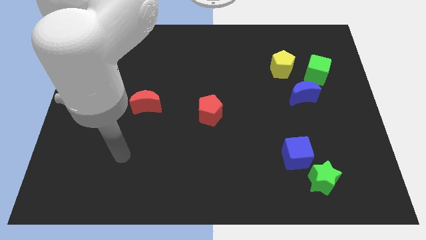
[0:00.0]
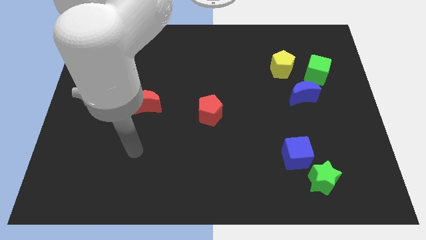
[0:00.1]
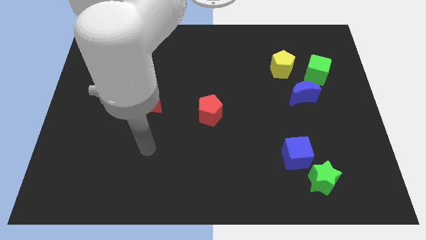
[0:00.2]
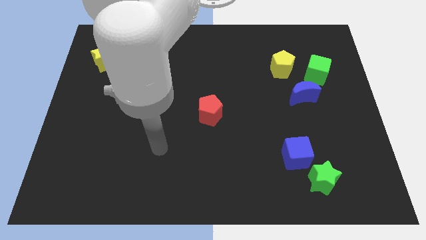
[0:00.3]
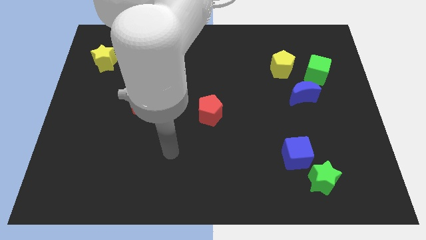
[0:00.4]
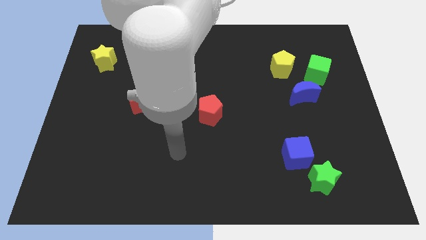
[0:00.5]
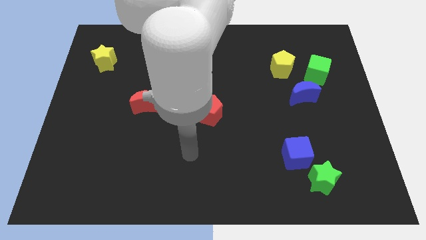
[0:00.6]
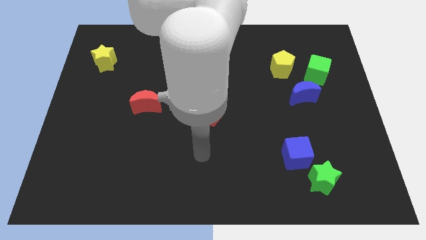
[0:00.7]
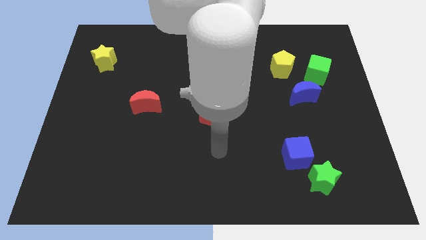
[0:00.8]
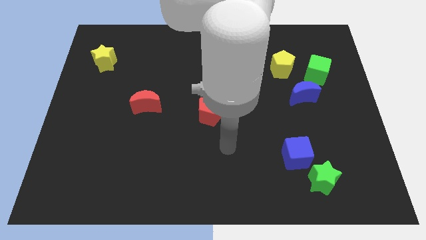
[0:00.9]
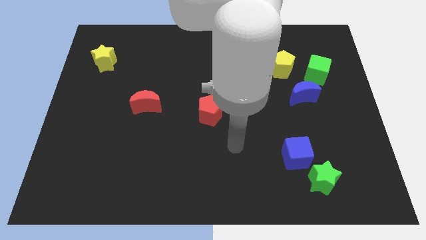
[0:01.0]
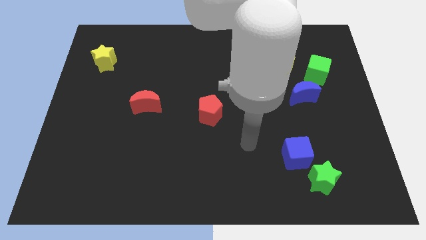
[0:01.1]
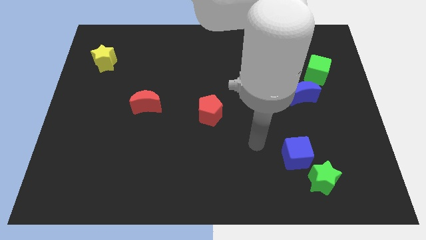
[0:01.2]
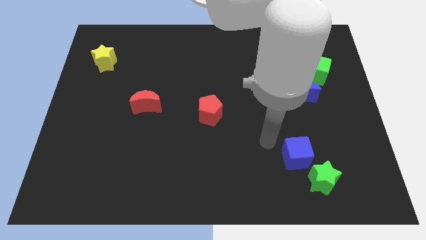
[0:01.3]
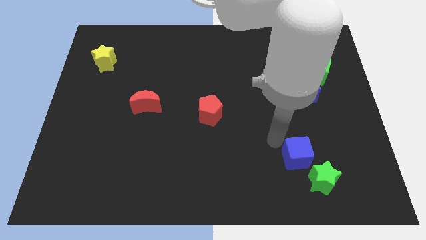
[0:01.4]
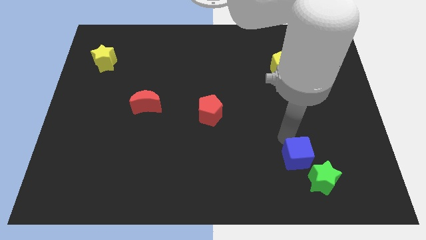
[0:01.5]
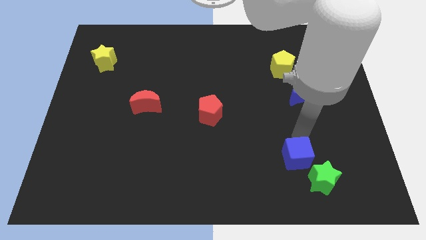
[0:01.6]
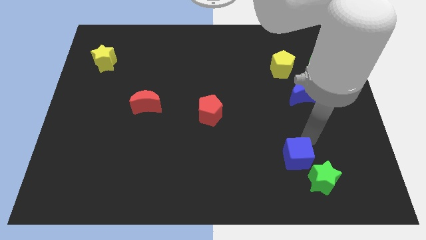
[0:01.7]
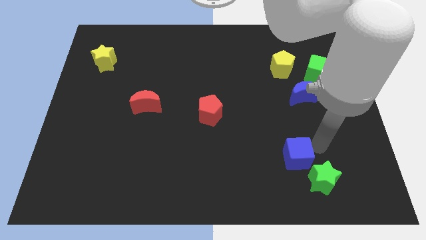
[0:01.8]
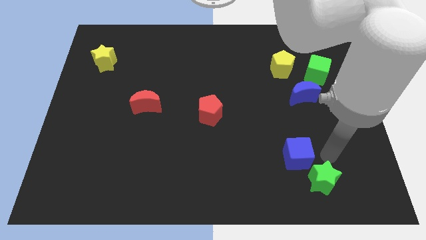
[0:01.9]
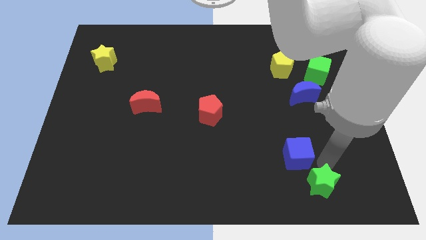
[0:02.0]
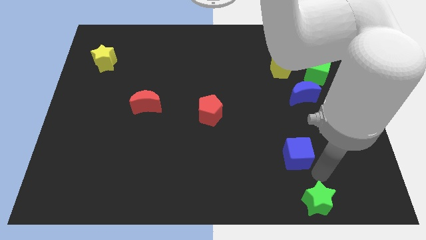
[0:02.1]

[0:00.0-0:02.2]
separate the blue cube from the green star

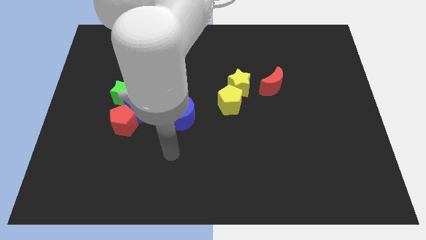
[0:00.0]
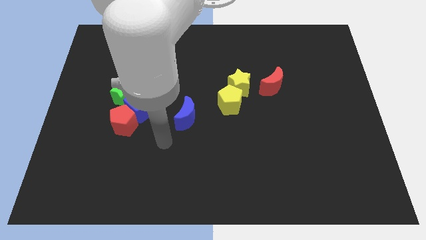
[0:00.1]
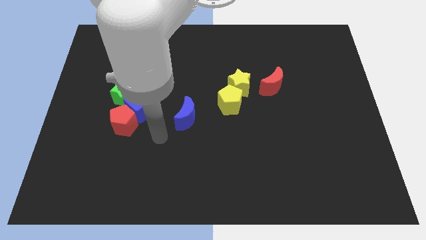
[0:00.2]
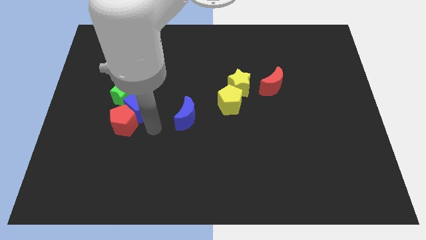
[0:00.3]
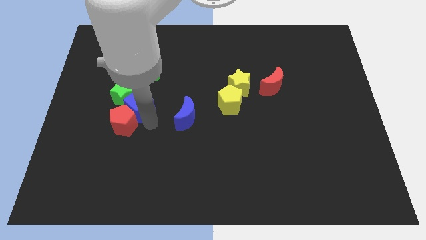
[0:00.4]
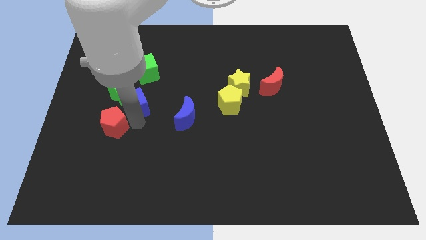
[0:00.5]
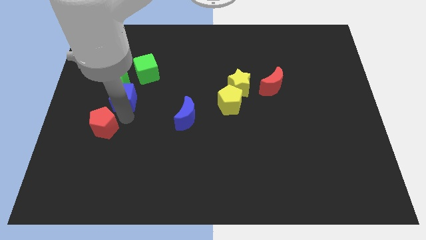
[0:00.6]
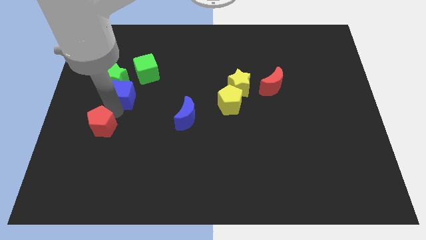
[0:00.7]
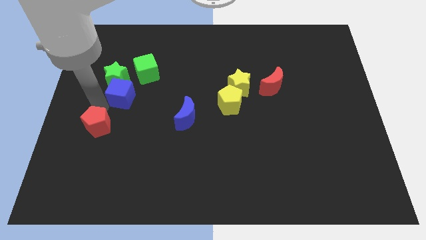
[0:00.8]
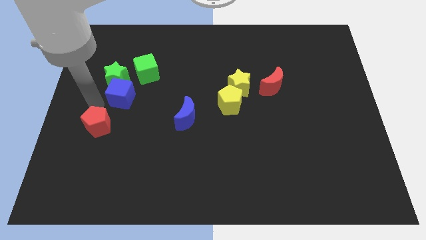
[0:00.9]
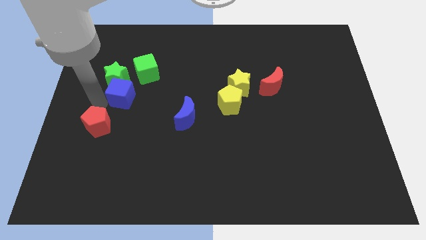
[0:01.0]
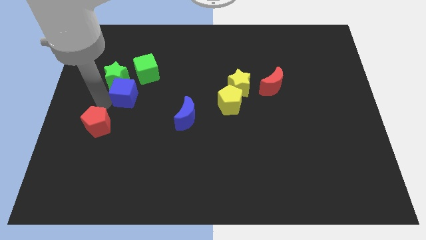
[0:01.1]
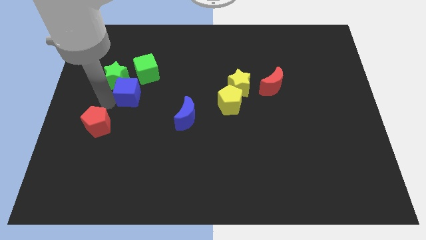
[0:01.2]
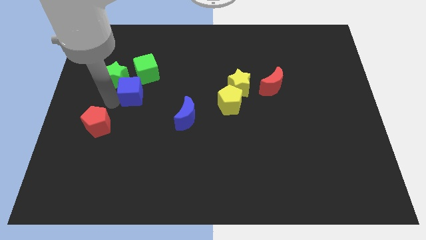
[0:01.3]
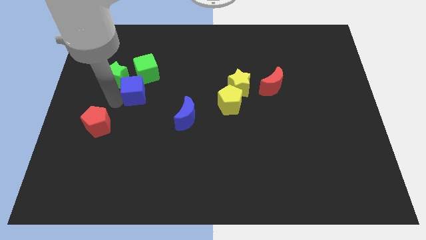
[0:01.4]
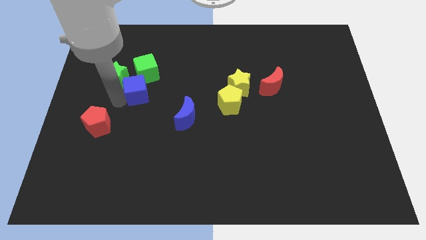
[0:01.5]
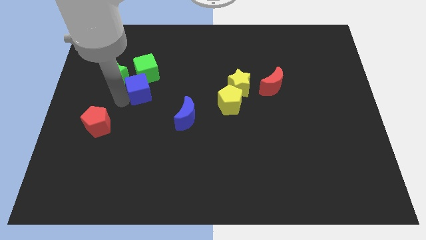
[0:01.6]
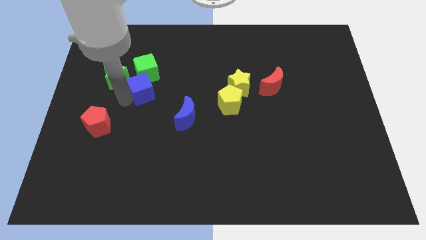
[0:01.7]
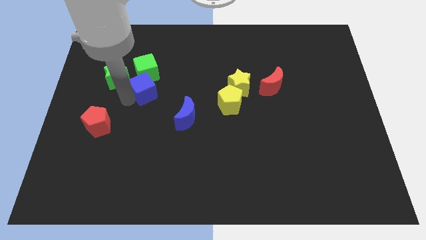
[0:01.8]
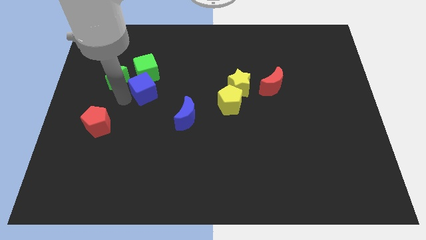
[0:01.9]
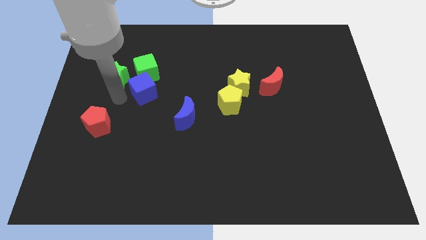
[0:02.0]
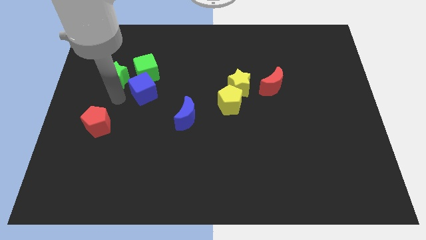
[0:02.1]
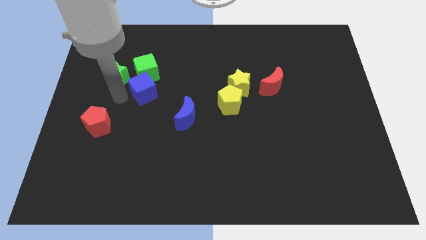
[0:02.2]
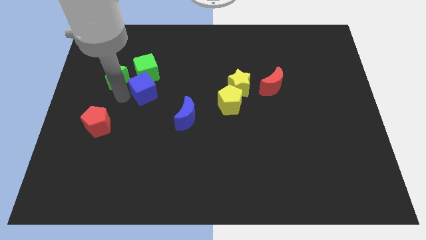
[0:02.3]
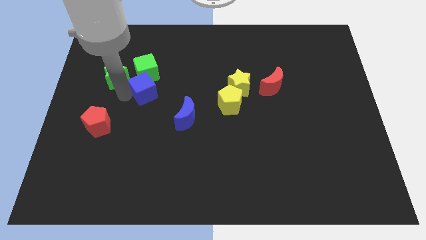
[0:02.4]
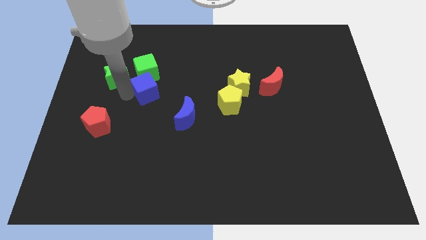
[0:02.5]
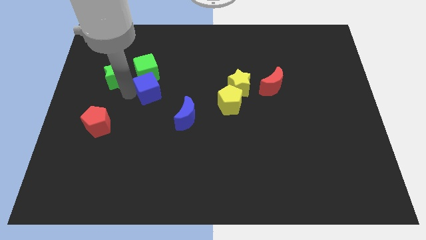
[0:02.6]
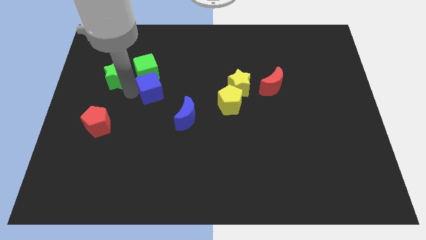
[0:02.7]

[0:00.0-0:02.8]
separate the blue cube from the red pentagon and green star

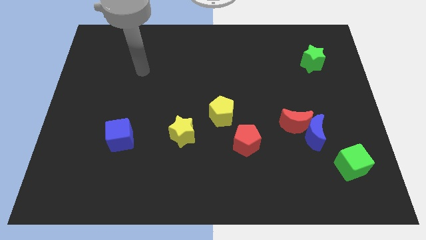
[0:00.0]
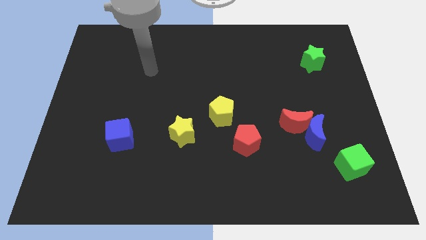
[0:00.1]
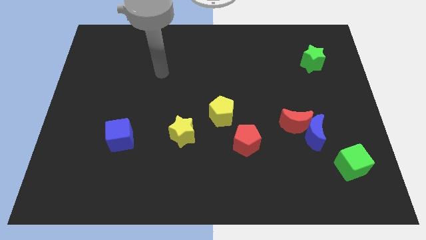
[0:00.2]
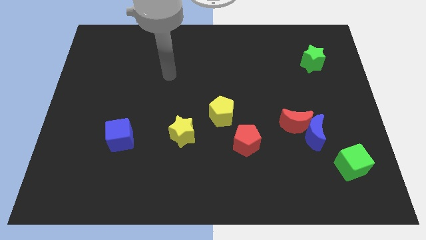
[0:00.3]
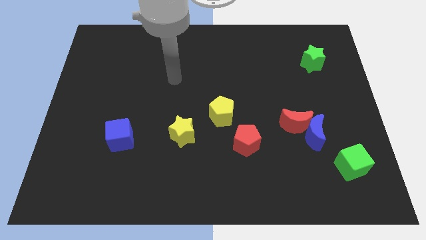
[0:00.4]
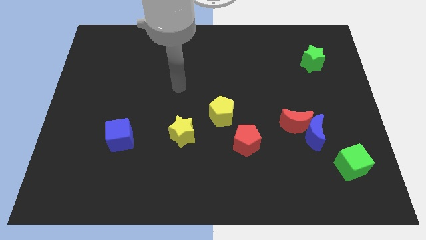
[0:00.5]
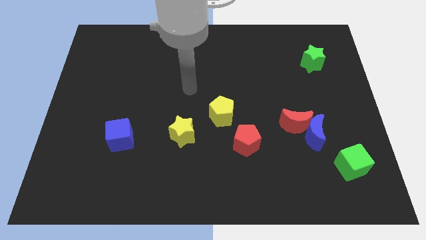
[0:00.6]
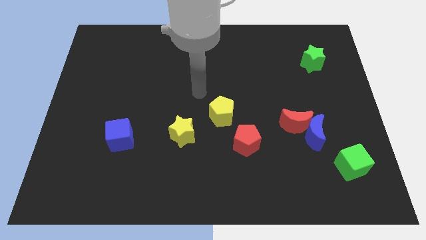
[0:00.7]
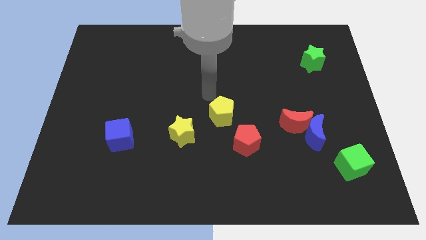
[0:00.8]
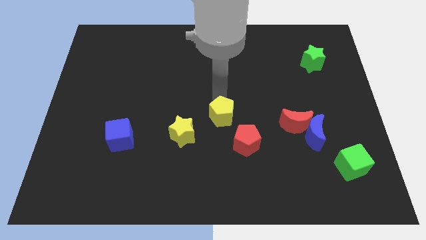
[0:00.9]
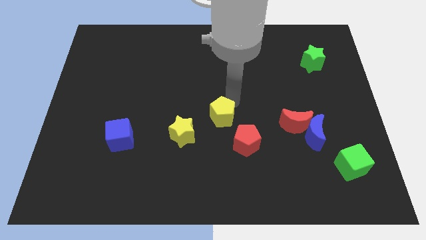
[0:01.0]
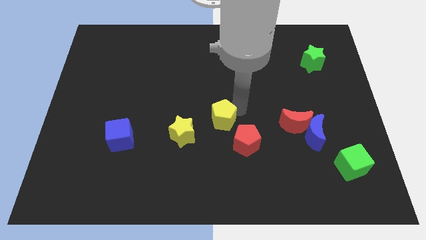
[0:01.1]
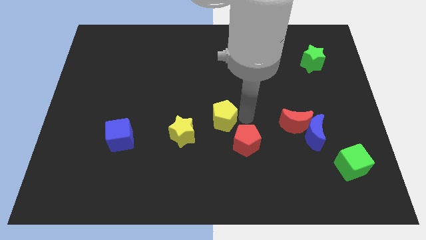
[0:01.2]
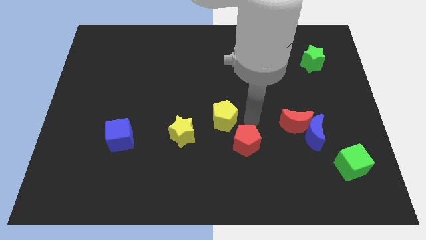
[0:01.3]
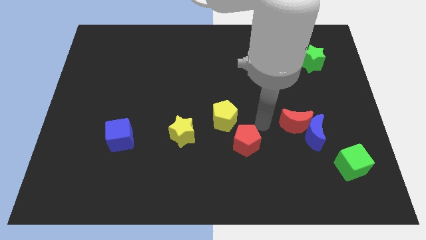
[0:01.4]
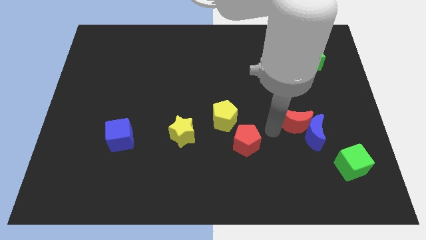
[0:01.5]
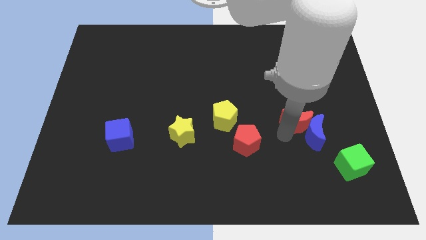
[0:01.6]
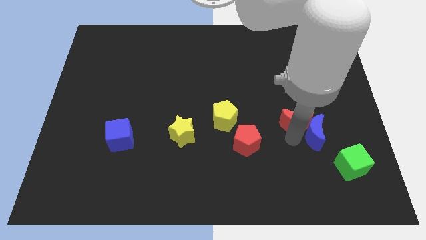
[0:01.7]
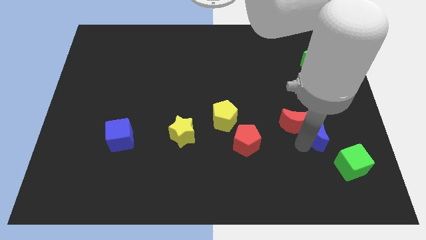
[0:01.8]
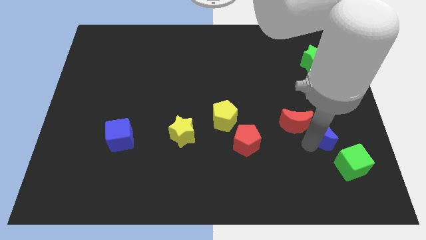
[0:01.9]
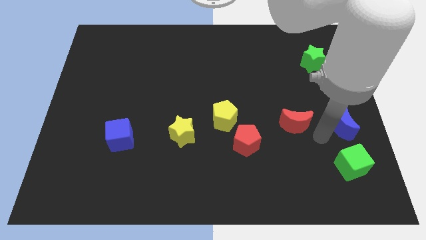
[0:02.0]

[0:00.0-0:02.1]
move the red moon away from the blue moon

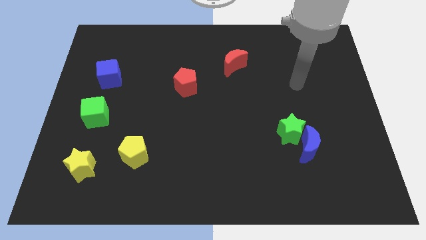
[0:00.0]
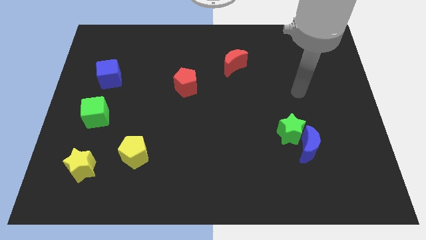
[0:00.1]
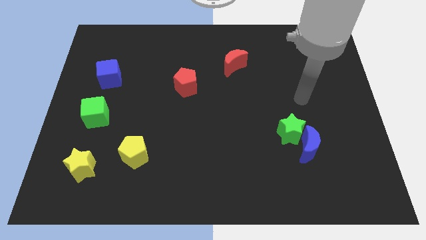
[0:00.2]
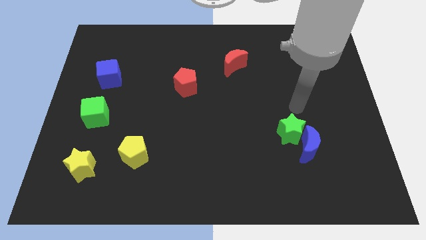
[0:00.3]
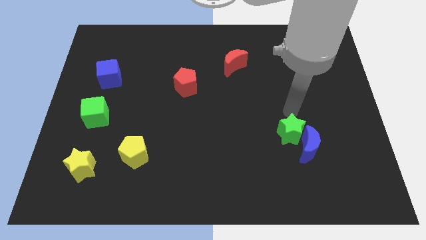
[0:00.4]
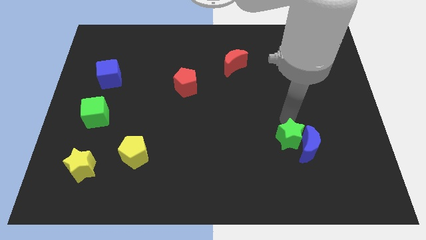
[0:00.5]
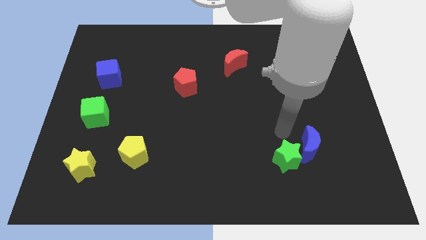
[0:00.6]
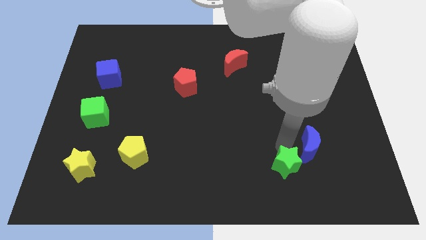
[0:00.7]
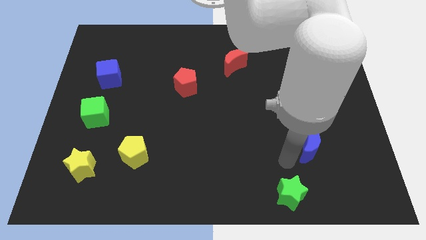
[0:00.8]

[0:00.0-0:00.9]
move the blue moon away from the green star

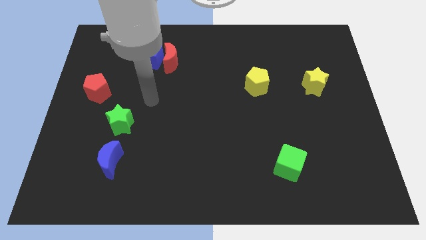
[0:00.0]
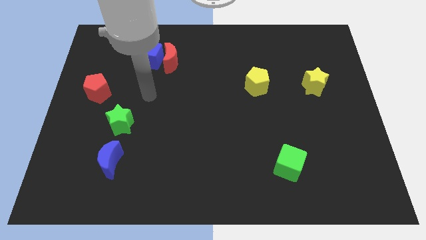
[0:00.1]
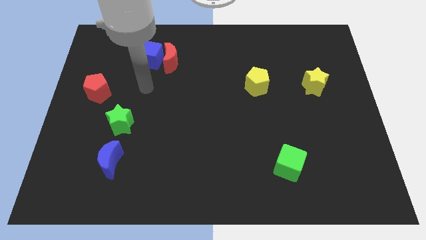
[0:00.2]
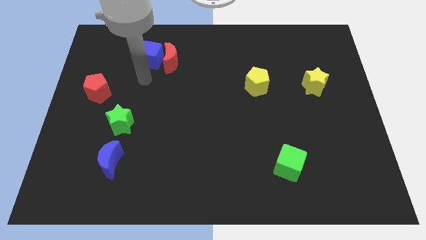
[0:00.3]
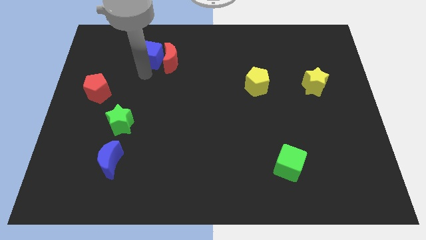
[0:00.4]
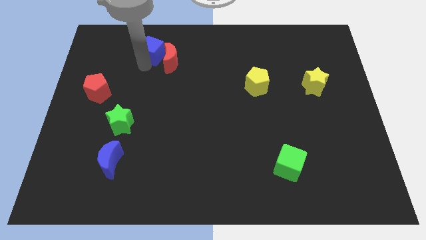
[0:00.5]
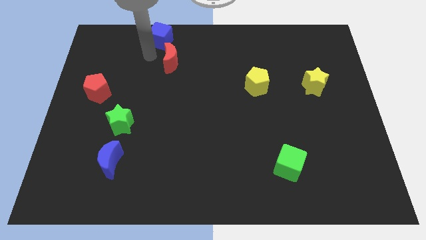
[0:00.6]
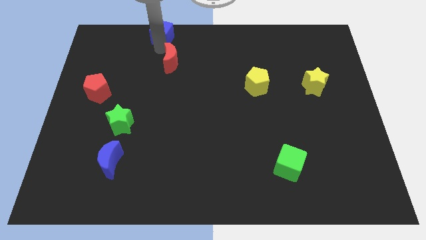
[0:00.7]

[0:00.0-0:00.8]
pull the red moon apart from the blue cube

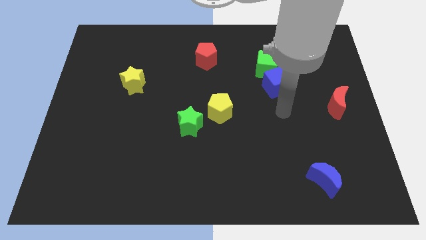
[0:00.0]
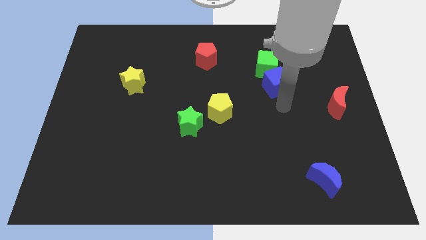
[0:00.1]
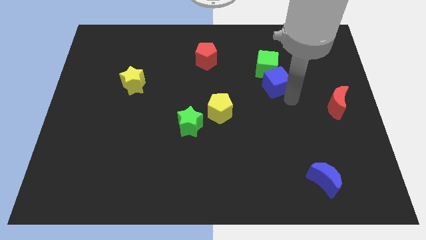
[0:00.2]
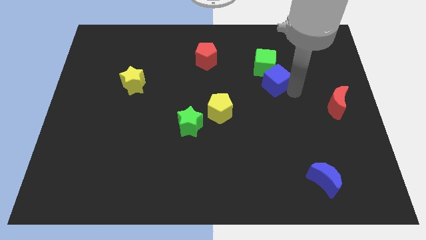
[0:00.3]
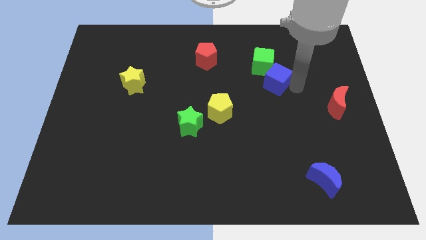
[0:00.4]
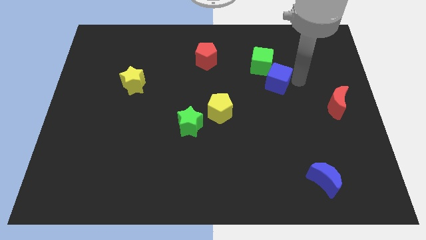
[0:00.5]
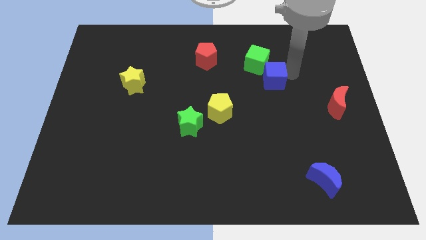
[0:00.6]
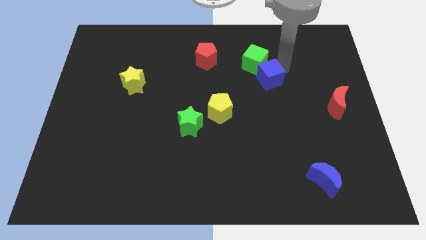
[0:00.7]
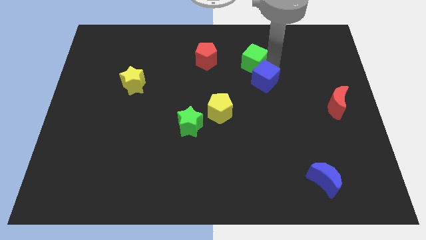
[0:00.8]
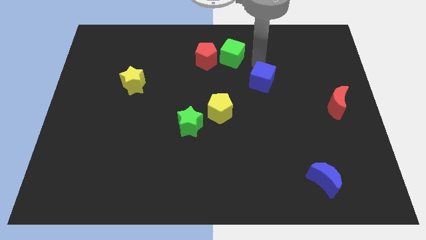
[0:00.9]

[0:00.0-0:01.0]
separate the blue cube from the green cube
